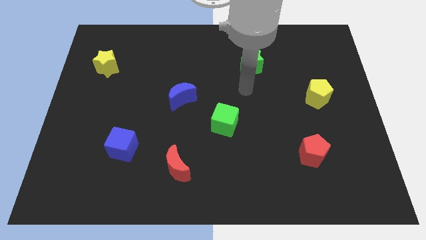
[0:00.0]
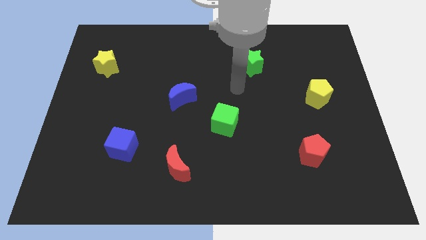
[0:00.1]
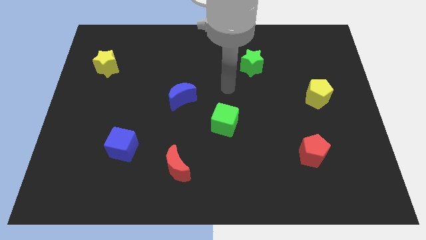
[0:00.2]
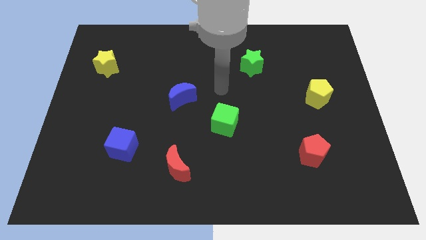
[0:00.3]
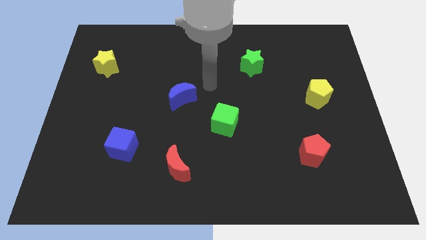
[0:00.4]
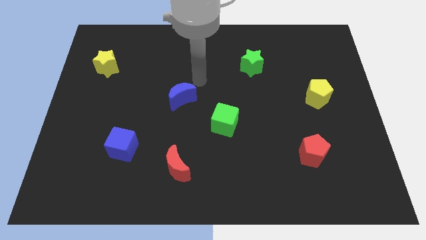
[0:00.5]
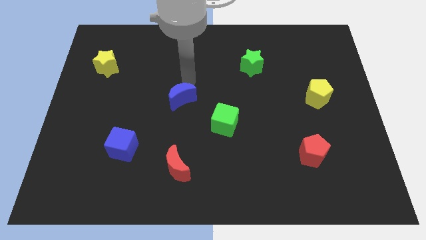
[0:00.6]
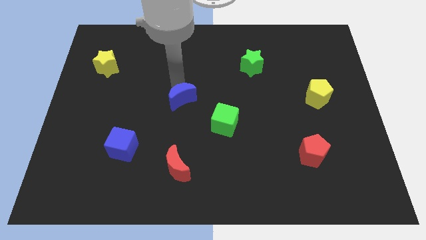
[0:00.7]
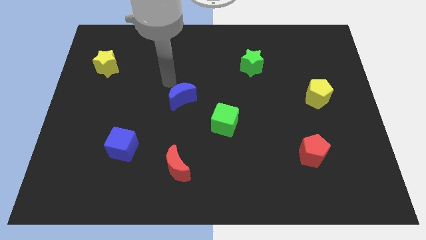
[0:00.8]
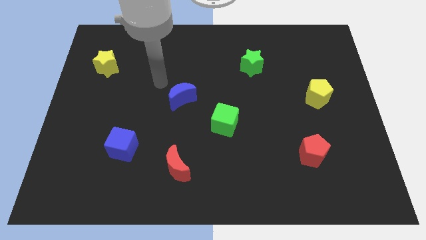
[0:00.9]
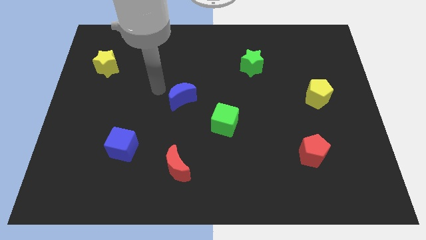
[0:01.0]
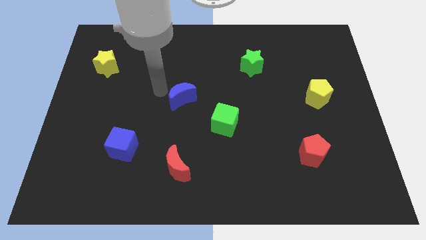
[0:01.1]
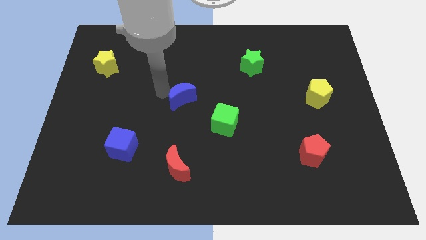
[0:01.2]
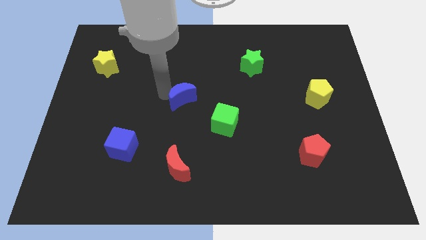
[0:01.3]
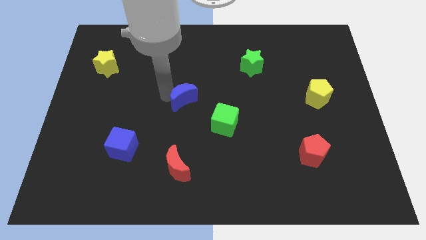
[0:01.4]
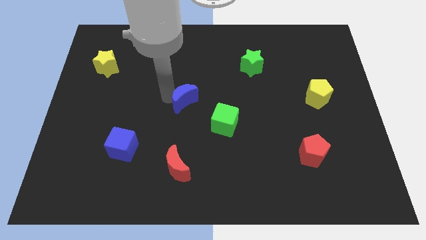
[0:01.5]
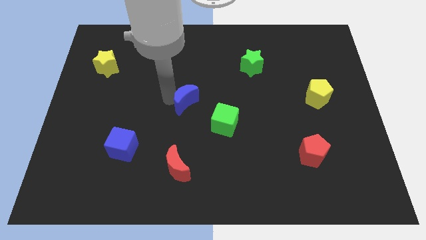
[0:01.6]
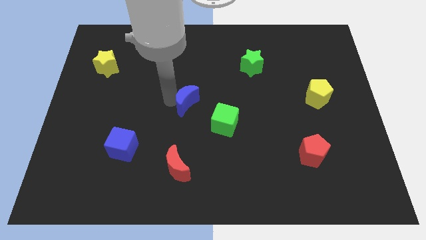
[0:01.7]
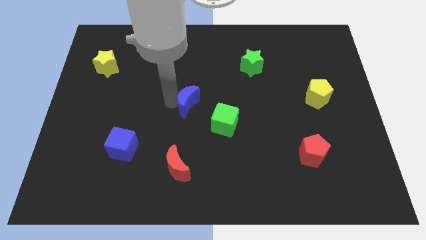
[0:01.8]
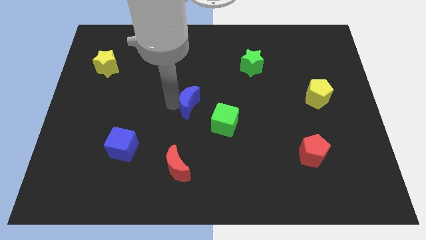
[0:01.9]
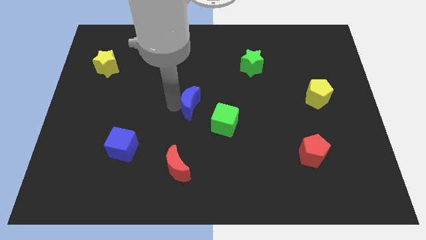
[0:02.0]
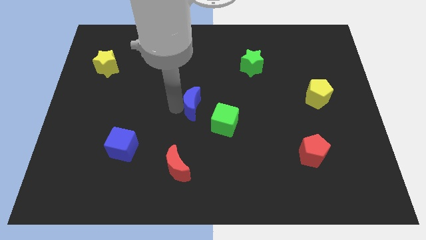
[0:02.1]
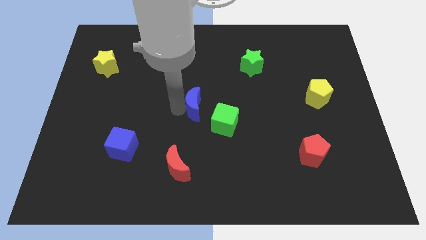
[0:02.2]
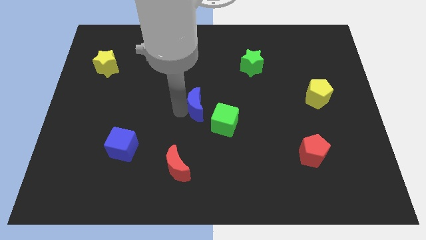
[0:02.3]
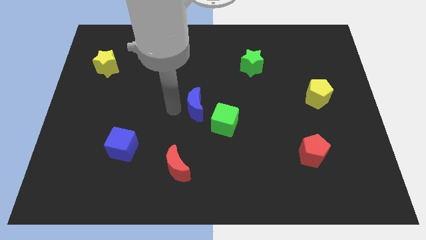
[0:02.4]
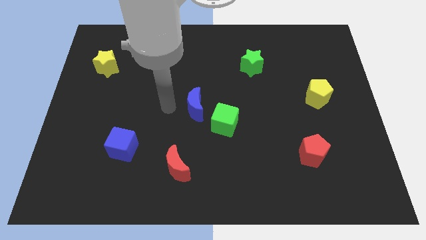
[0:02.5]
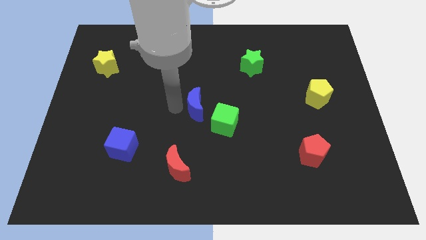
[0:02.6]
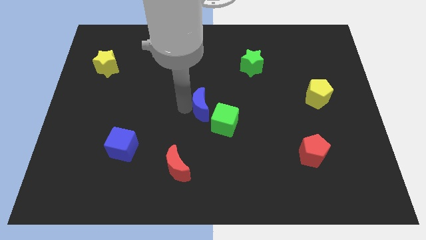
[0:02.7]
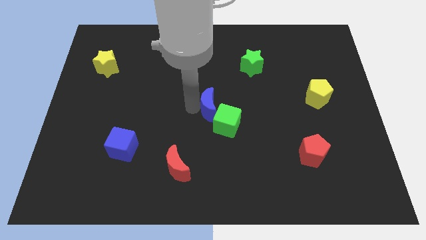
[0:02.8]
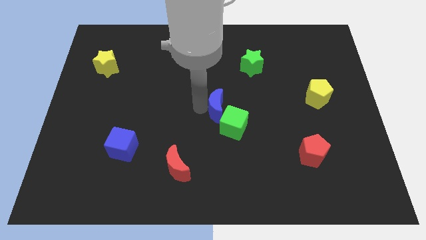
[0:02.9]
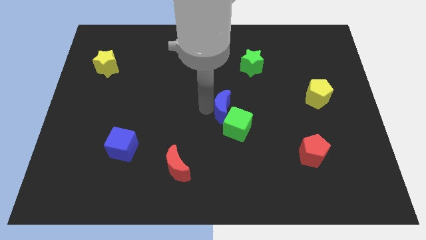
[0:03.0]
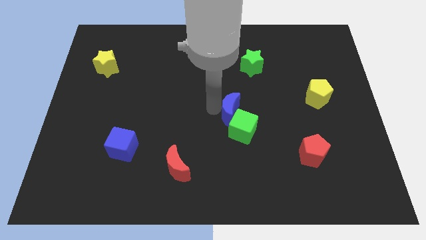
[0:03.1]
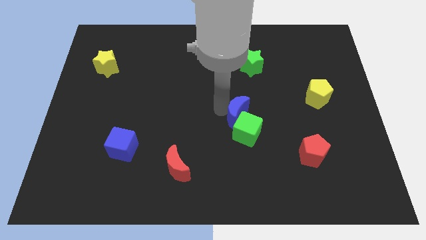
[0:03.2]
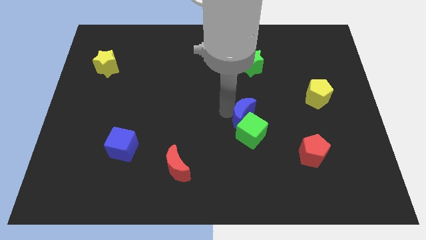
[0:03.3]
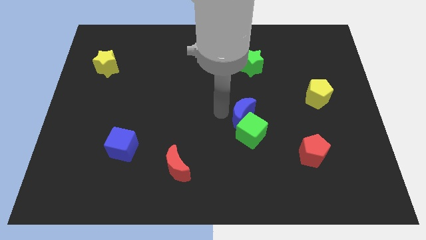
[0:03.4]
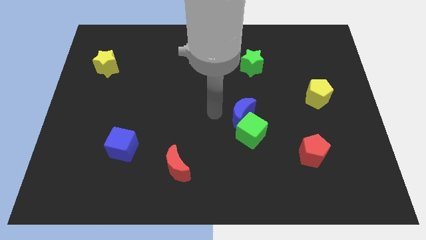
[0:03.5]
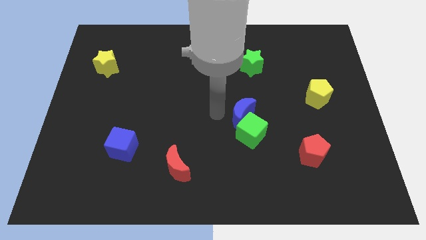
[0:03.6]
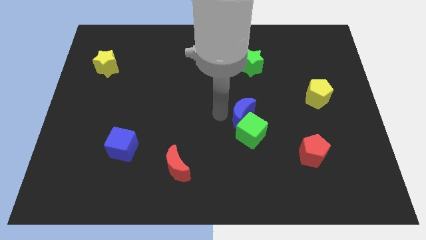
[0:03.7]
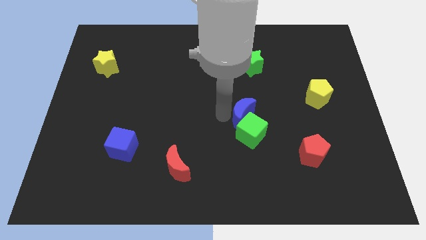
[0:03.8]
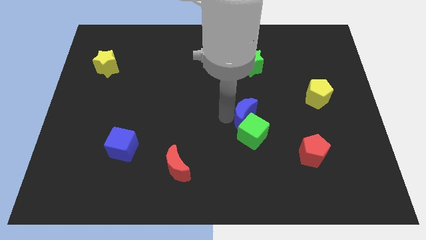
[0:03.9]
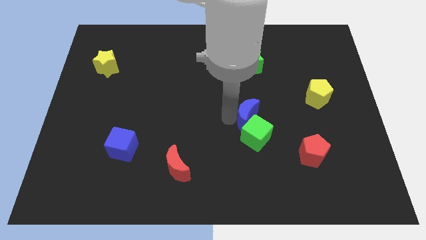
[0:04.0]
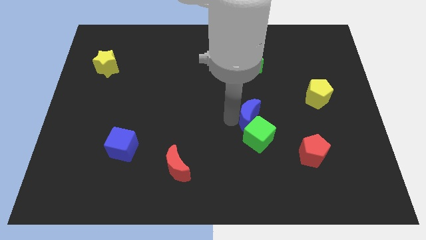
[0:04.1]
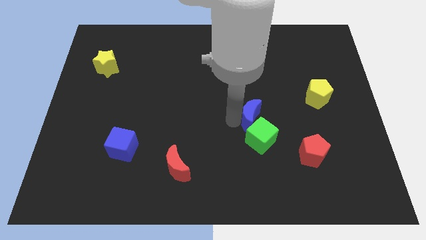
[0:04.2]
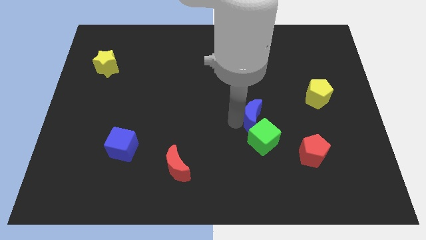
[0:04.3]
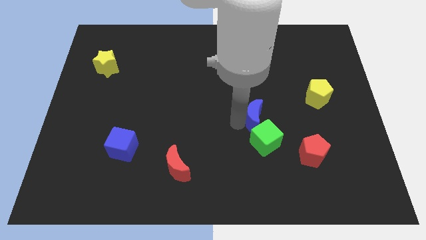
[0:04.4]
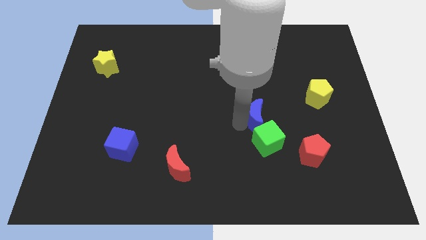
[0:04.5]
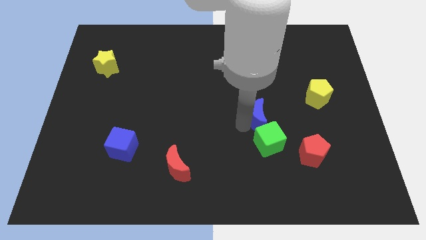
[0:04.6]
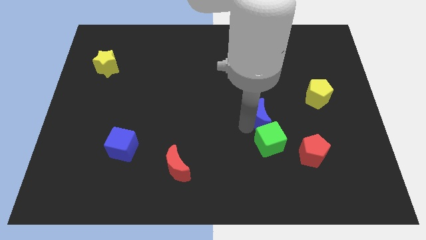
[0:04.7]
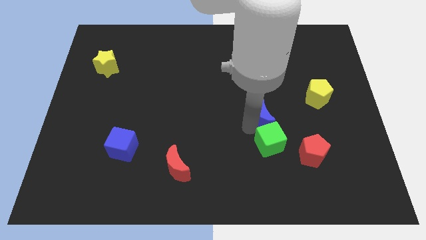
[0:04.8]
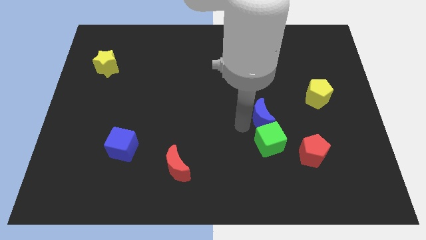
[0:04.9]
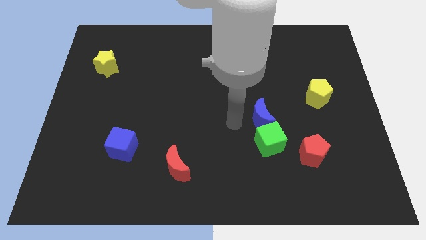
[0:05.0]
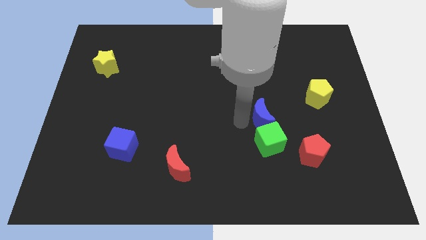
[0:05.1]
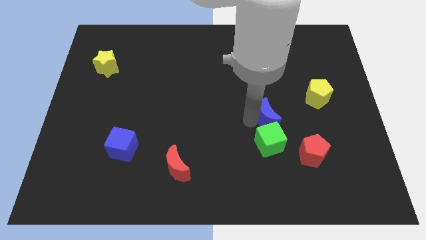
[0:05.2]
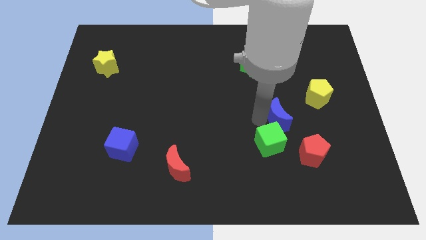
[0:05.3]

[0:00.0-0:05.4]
put the blue moon to the bottom left of the yellow pentagon

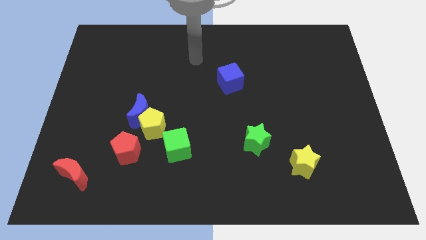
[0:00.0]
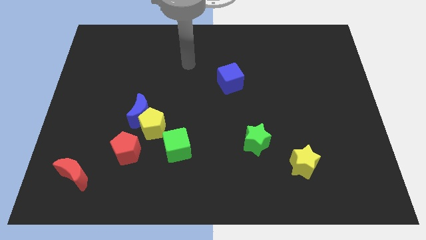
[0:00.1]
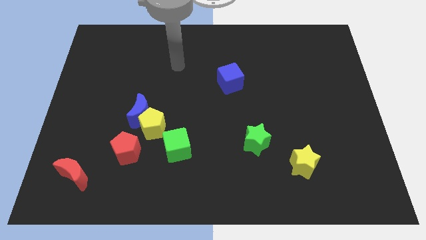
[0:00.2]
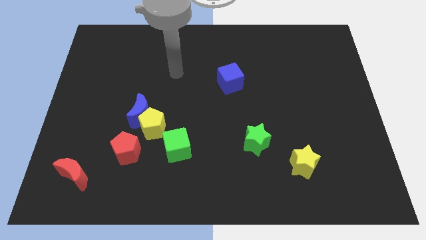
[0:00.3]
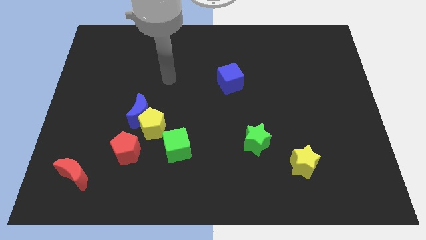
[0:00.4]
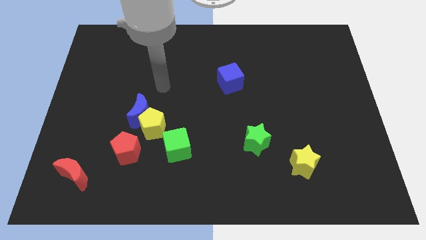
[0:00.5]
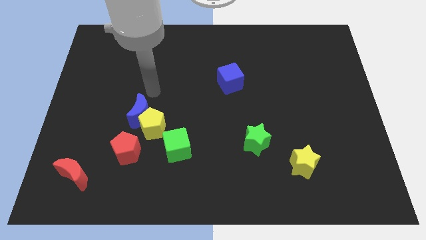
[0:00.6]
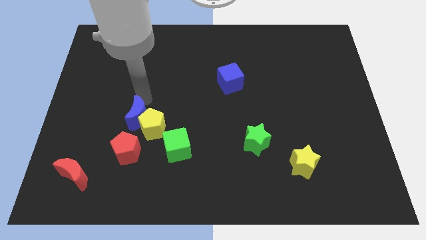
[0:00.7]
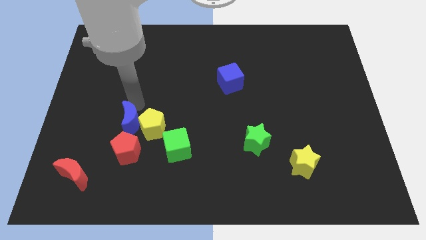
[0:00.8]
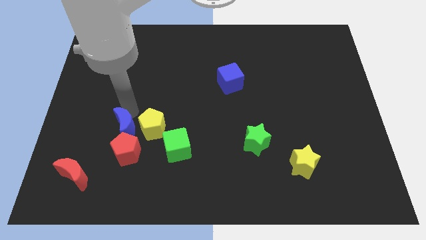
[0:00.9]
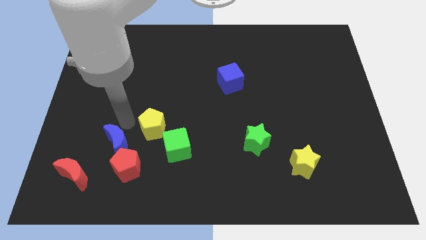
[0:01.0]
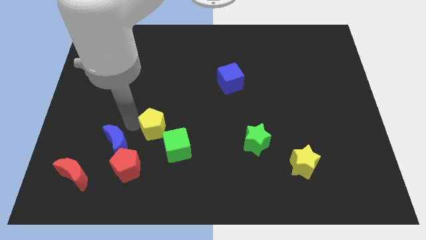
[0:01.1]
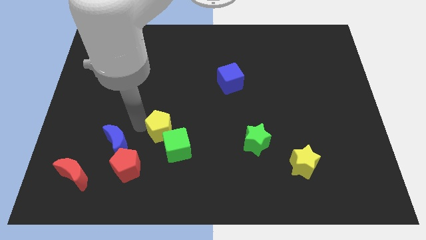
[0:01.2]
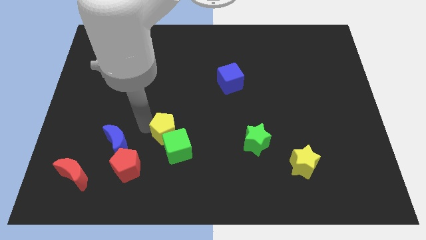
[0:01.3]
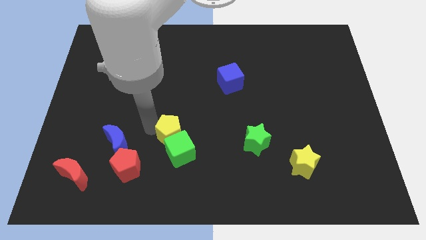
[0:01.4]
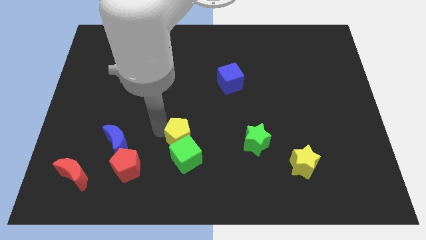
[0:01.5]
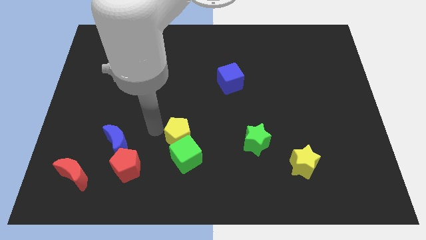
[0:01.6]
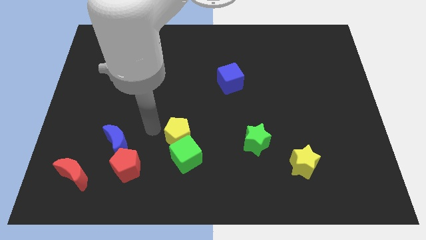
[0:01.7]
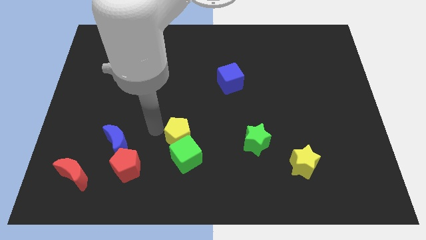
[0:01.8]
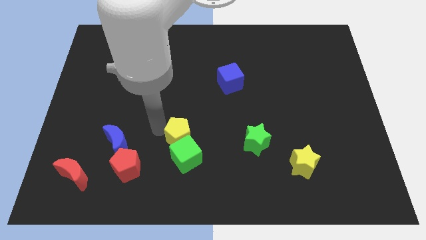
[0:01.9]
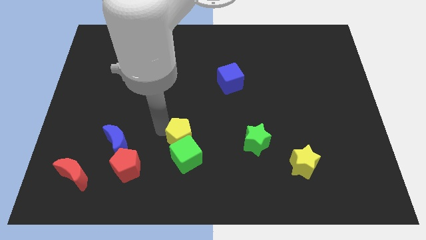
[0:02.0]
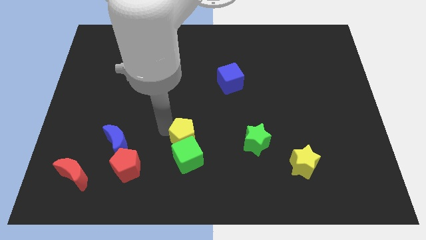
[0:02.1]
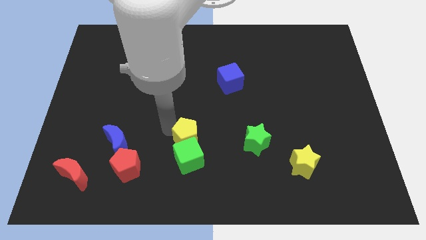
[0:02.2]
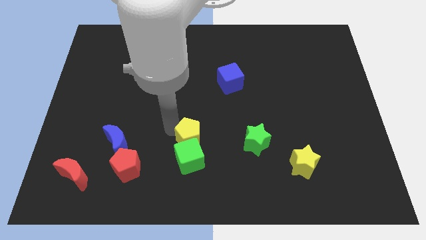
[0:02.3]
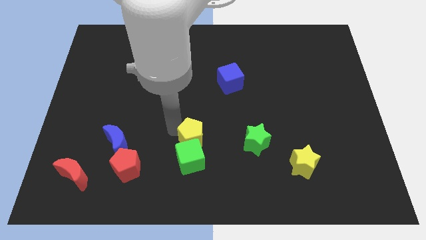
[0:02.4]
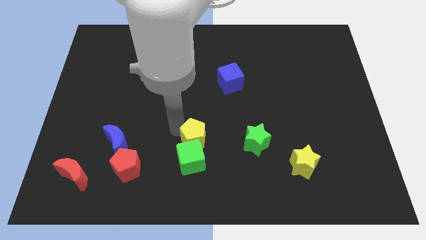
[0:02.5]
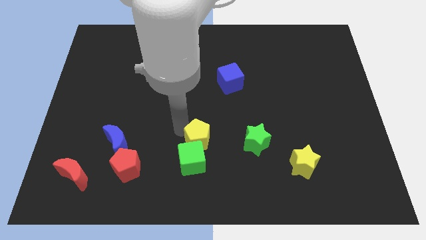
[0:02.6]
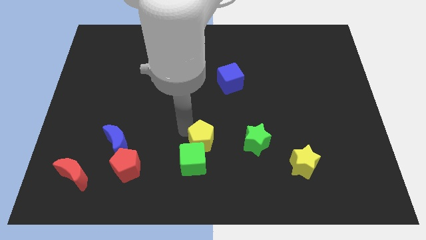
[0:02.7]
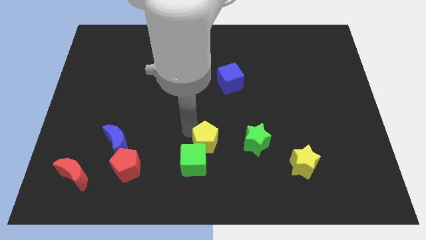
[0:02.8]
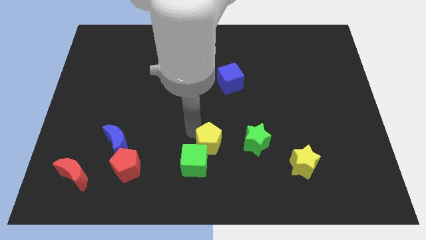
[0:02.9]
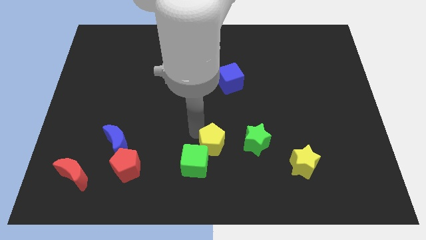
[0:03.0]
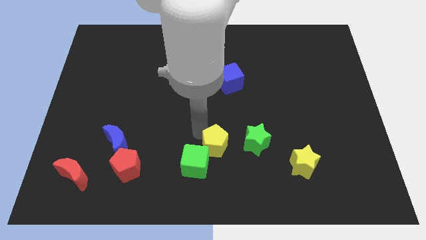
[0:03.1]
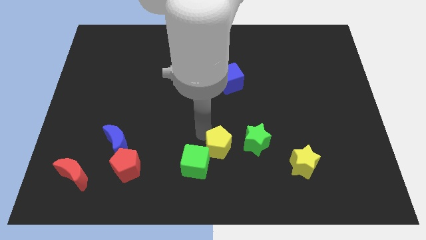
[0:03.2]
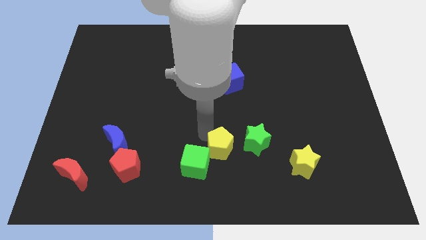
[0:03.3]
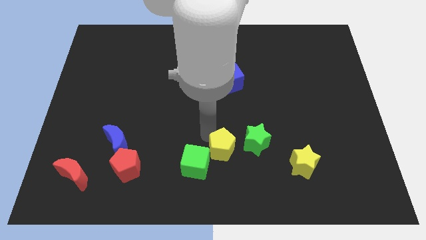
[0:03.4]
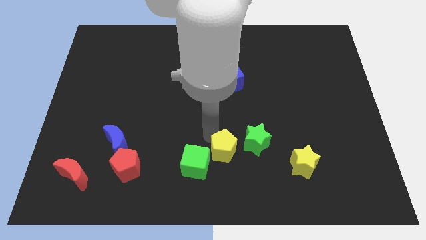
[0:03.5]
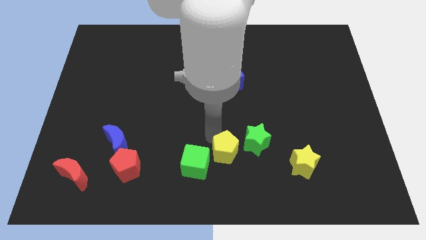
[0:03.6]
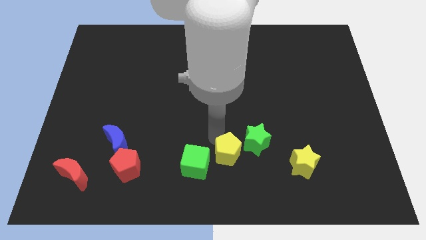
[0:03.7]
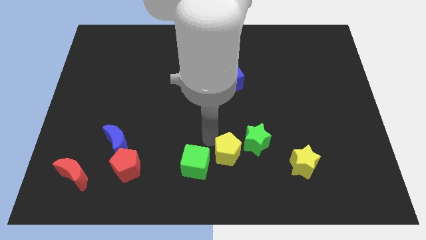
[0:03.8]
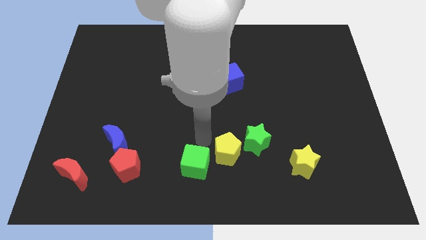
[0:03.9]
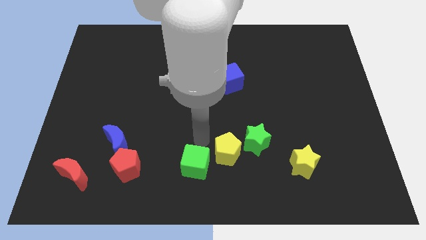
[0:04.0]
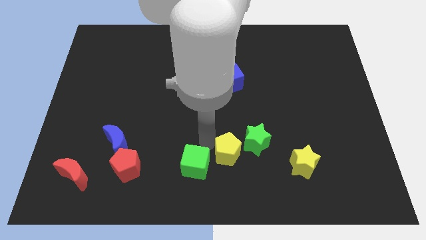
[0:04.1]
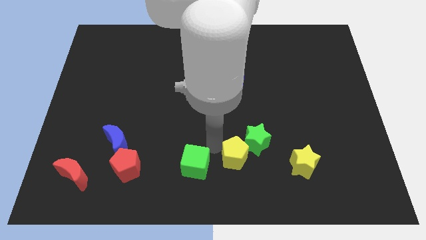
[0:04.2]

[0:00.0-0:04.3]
slide the yellow pentagon just left of the yellow star
